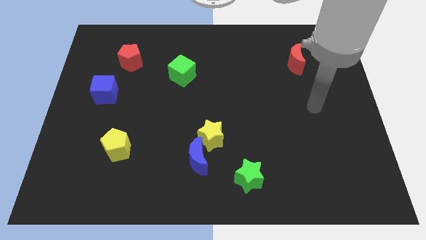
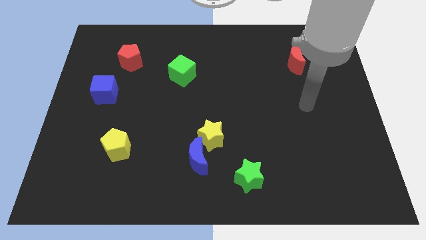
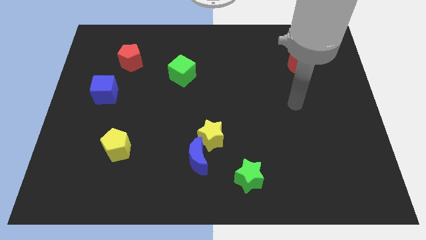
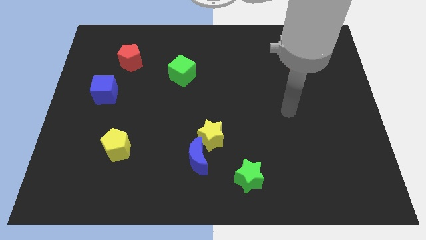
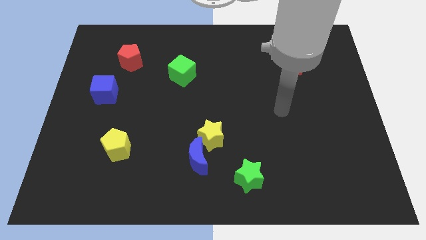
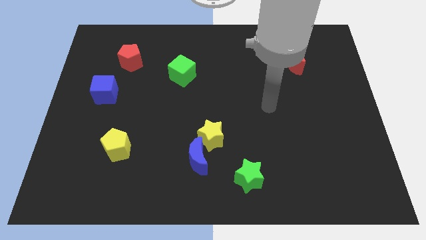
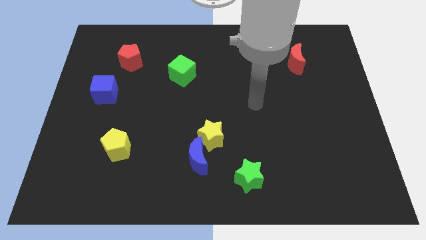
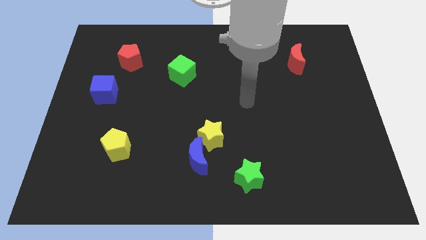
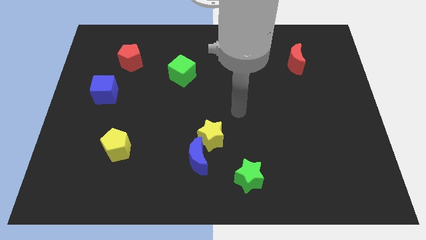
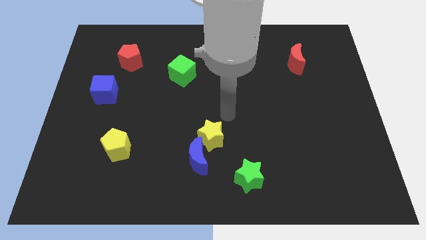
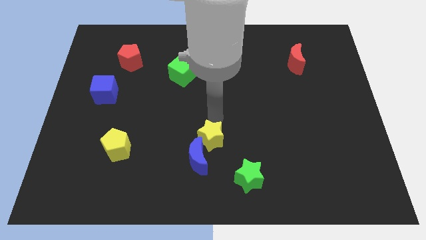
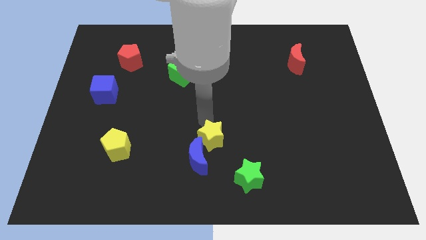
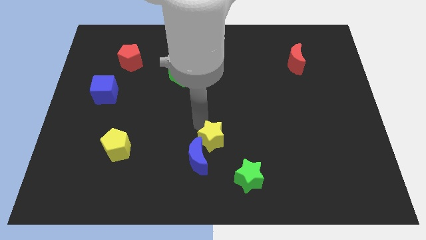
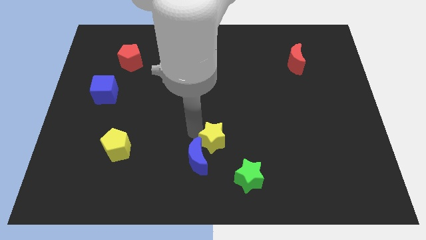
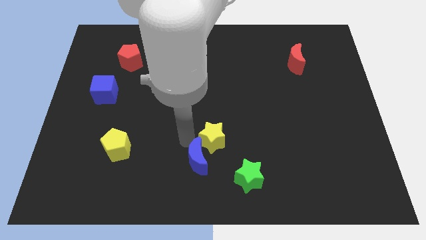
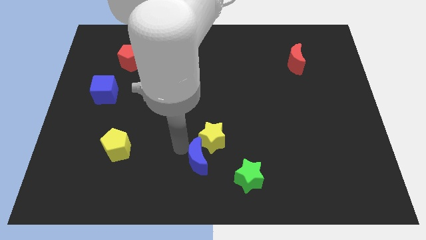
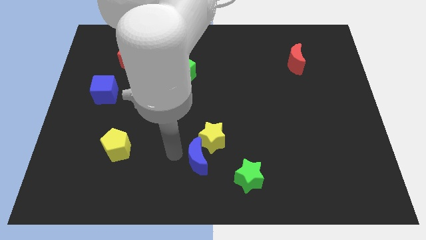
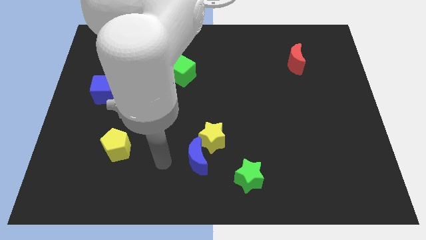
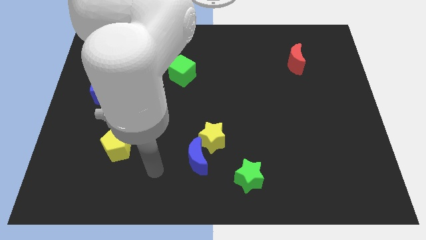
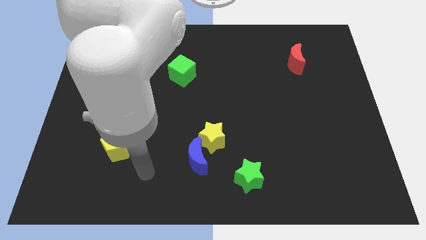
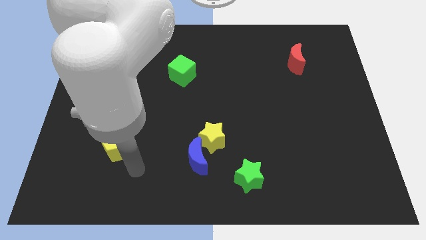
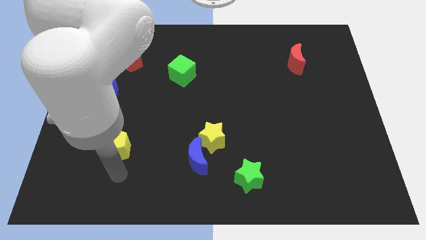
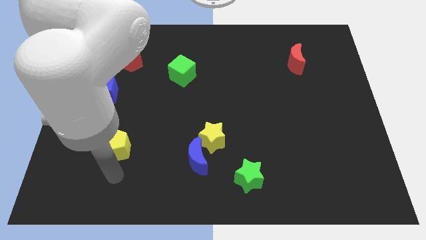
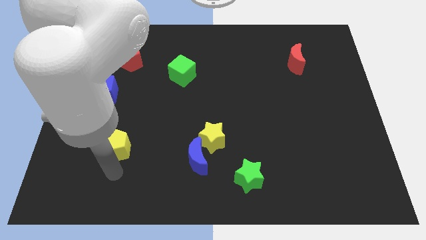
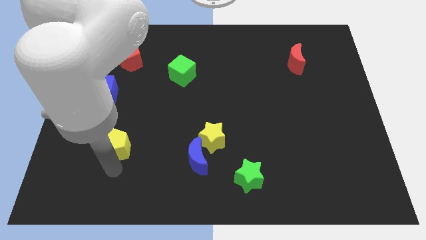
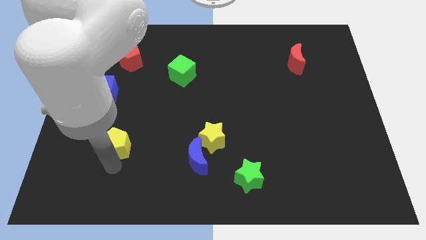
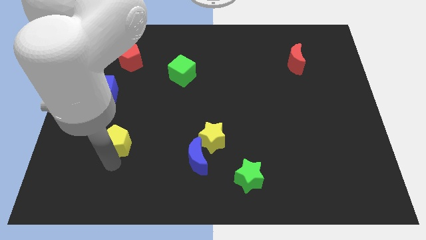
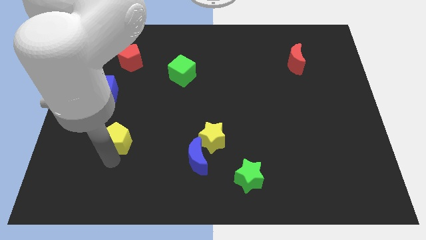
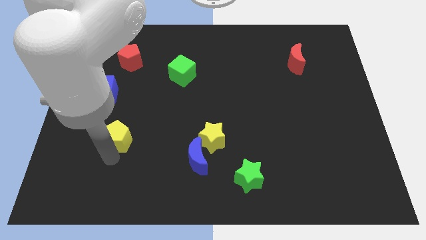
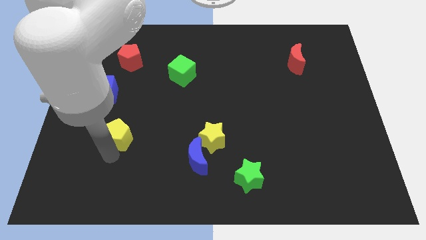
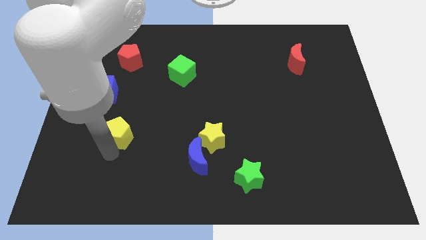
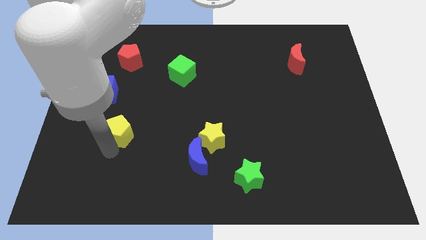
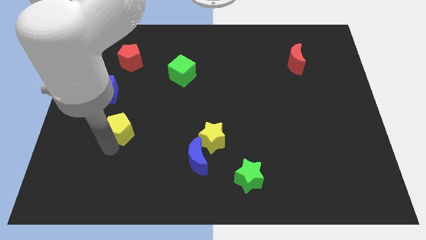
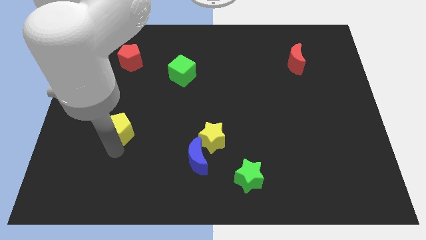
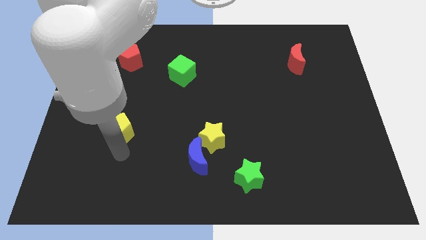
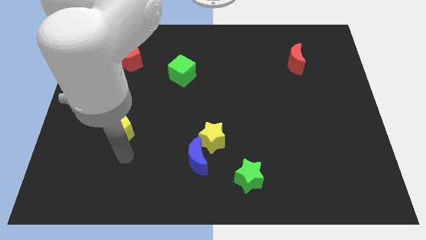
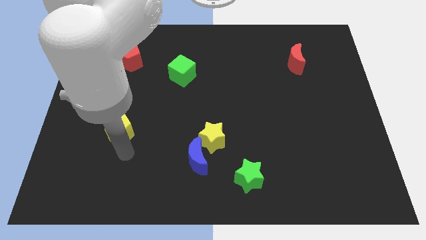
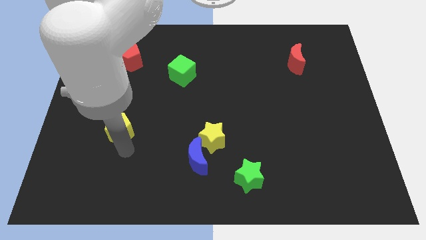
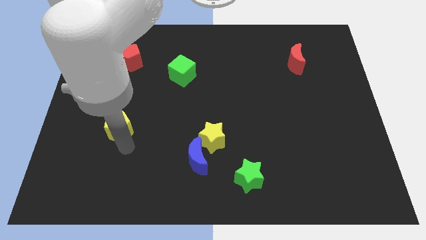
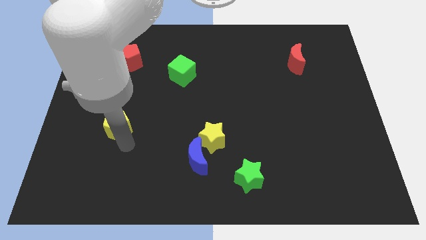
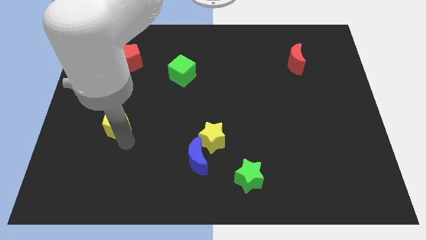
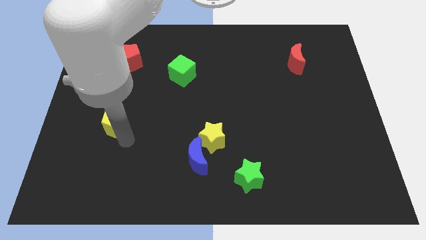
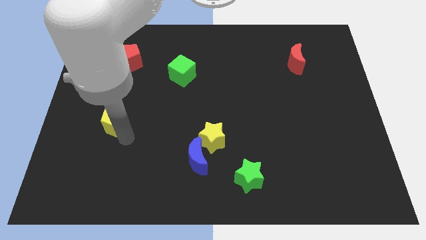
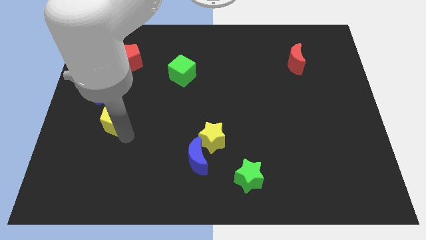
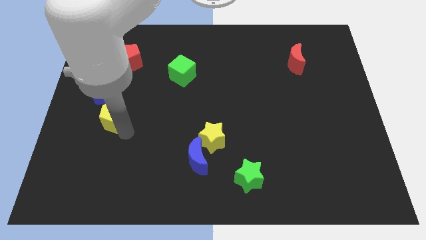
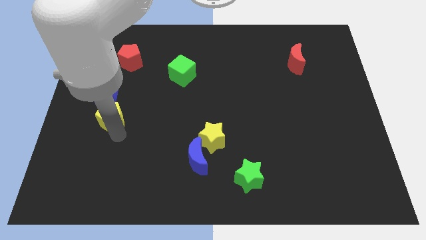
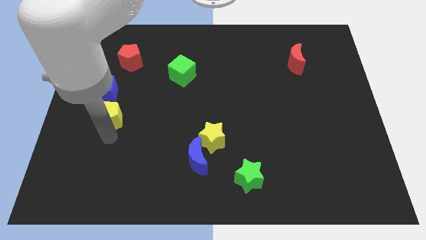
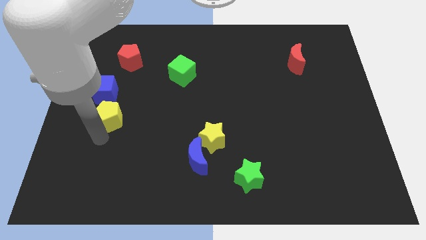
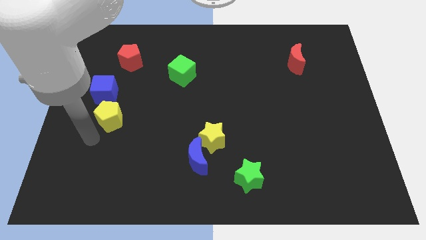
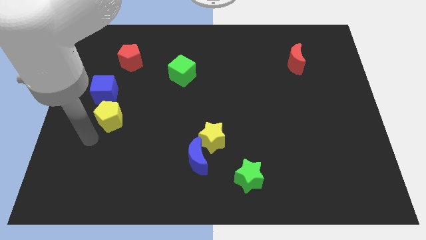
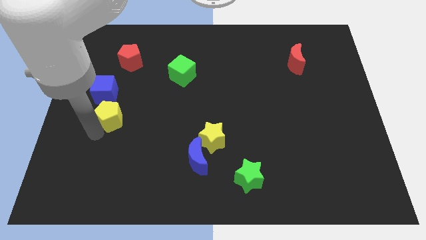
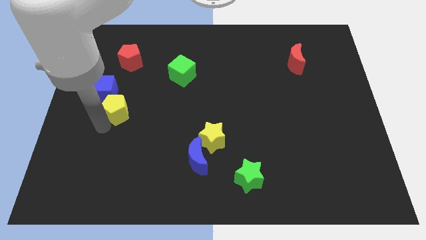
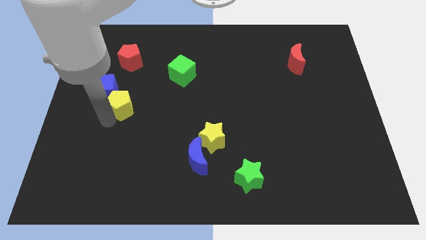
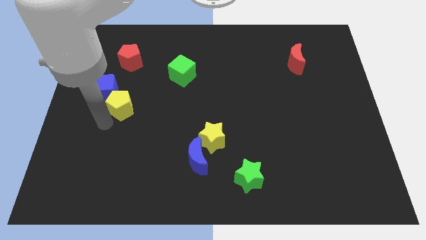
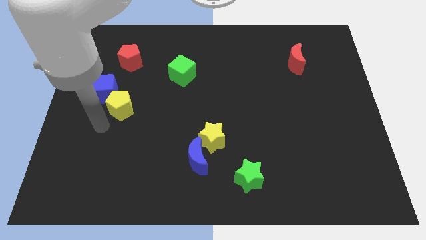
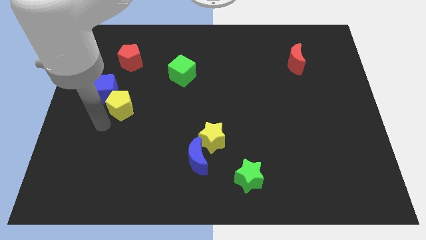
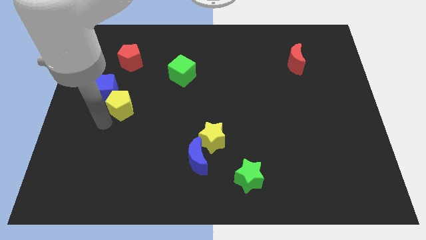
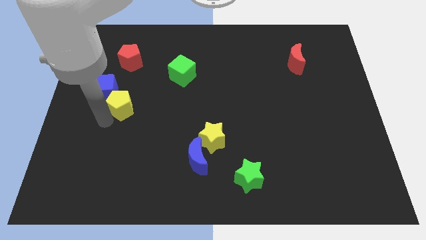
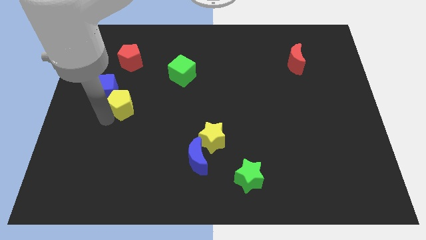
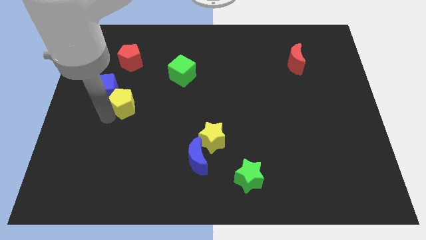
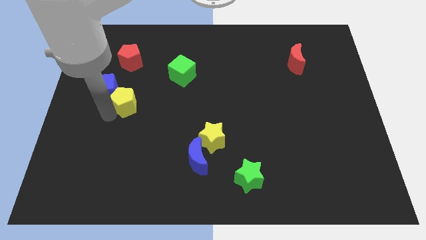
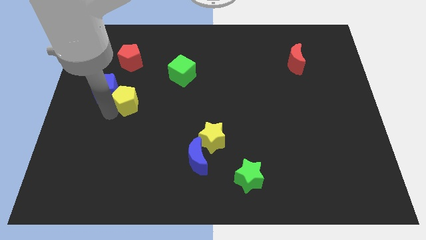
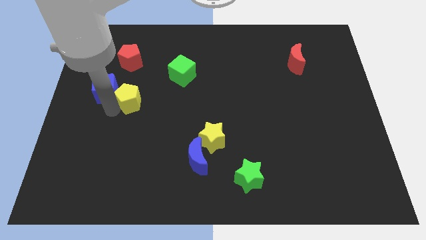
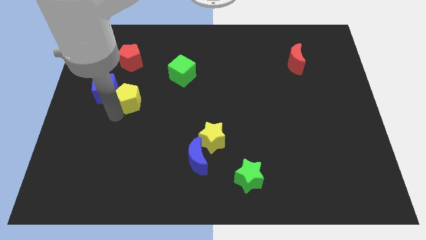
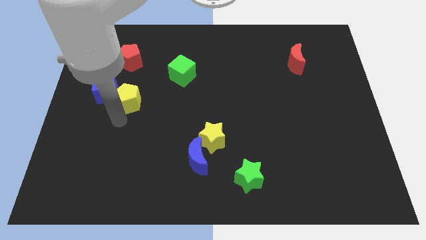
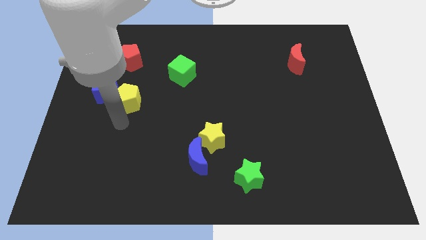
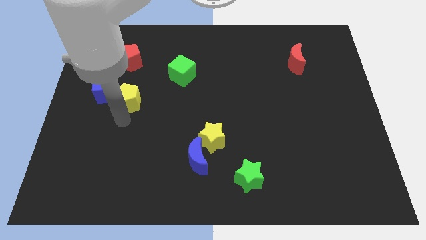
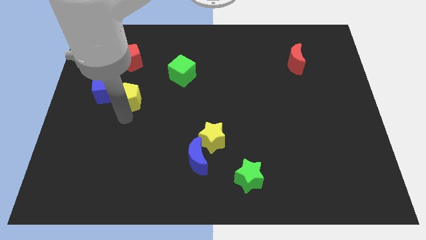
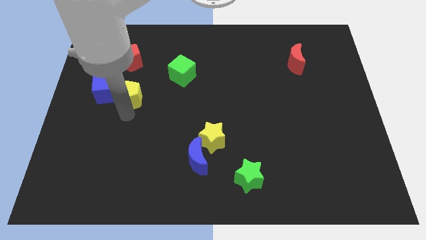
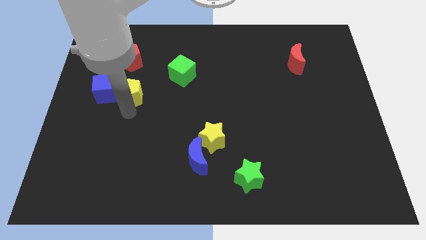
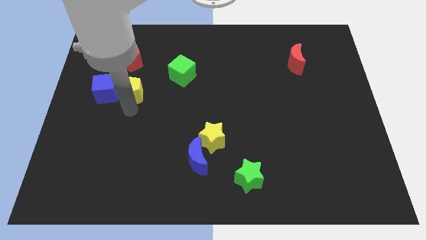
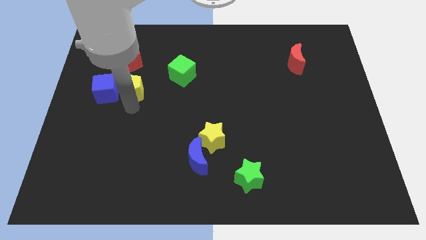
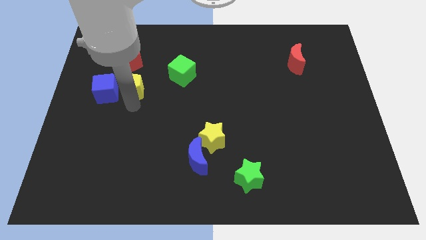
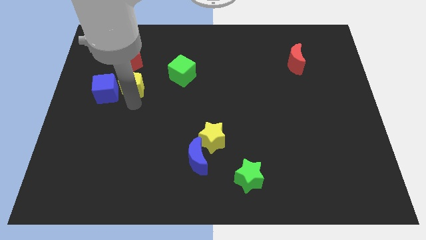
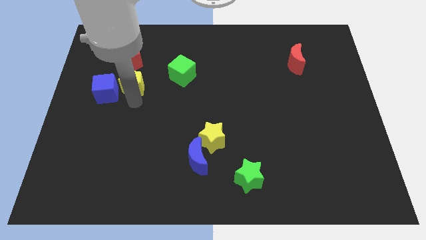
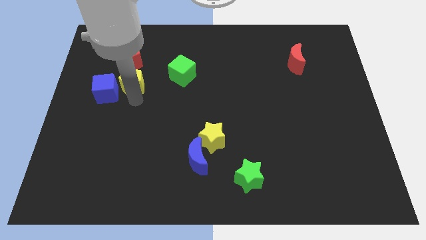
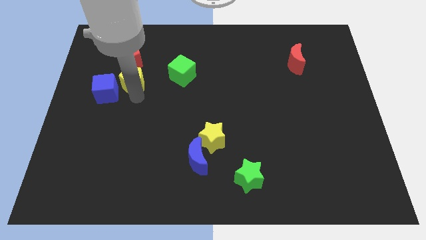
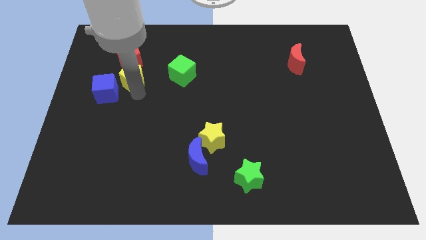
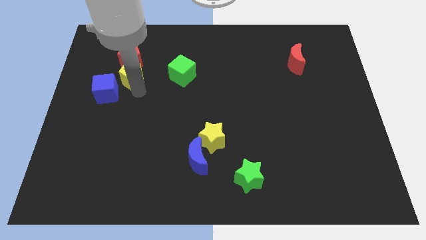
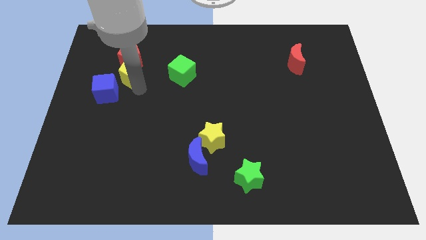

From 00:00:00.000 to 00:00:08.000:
move the yellow pentagon next to the red pentagon
